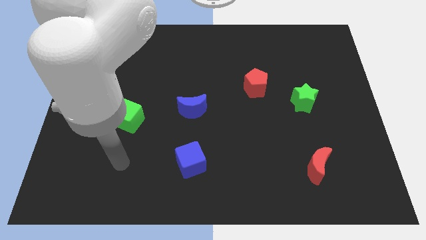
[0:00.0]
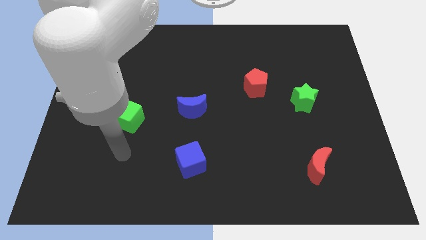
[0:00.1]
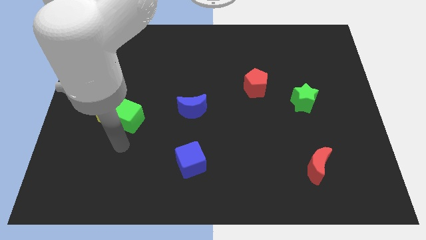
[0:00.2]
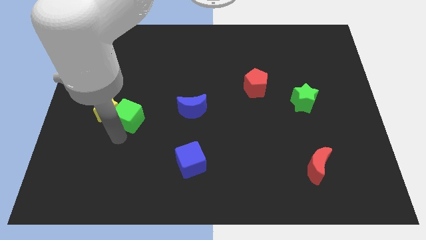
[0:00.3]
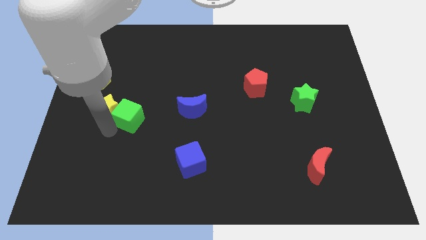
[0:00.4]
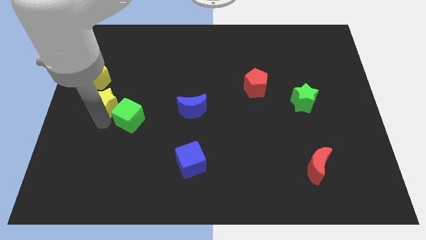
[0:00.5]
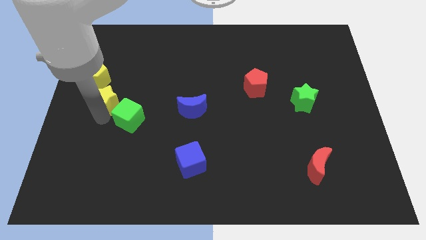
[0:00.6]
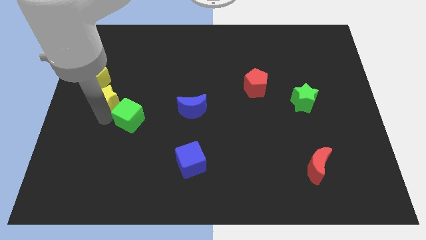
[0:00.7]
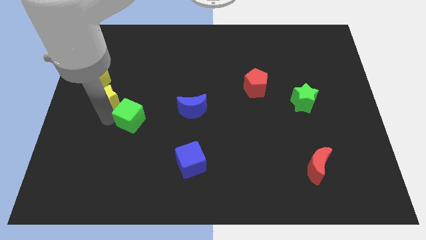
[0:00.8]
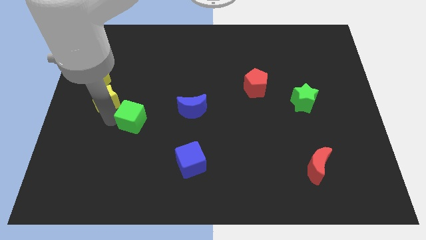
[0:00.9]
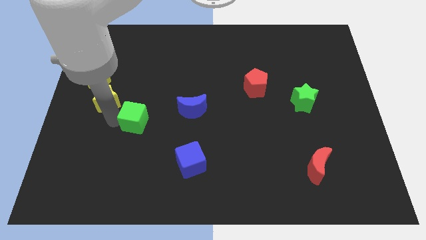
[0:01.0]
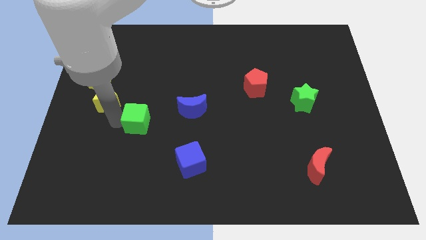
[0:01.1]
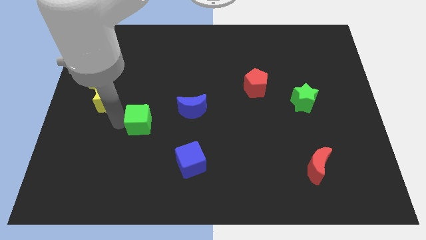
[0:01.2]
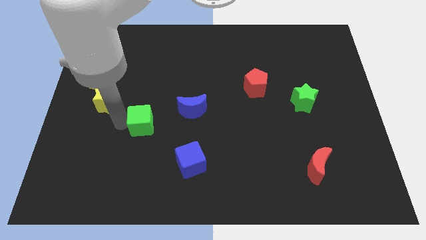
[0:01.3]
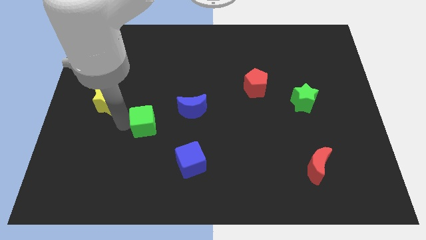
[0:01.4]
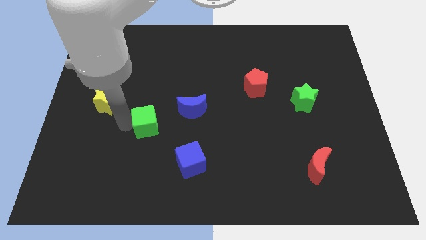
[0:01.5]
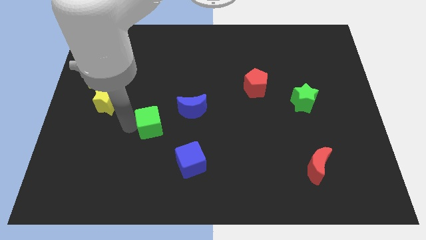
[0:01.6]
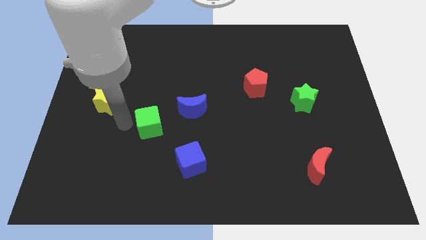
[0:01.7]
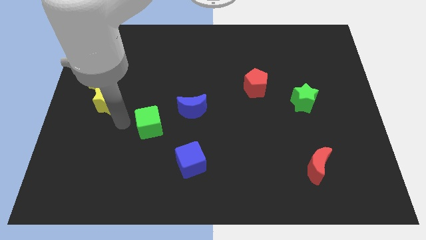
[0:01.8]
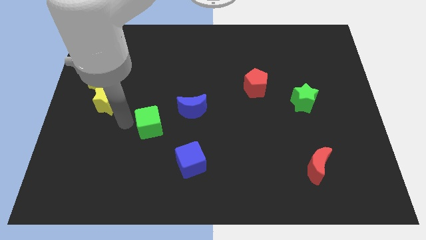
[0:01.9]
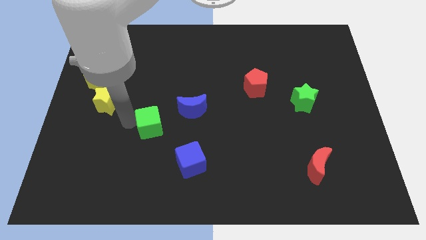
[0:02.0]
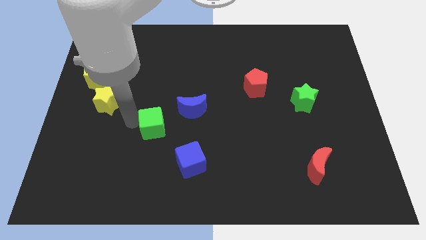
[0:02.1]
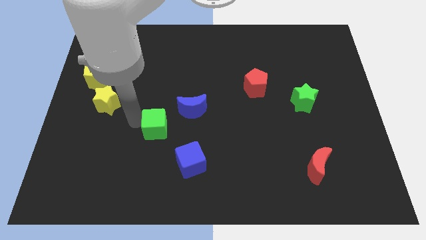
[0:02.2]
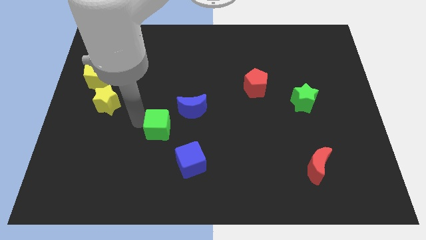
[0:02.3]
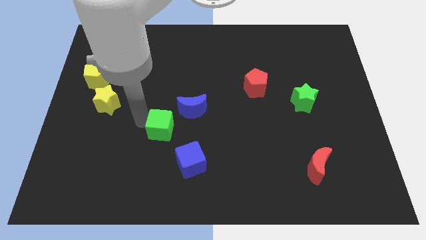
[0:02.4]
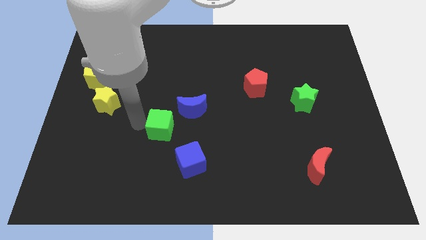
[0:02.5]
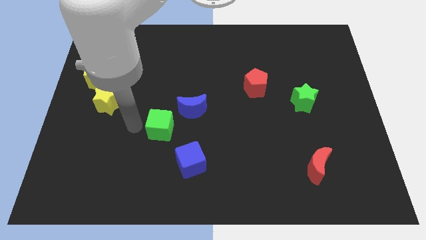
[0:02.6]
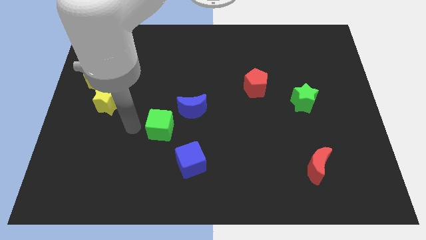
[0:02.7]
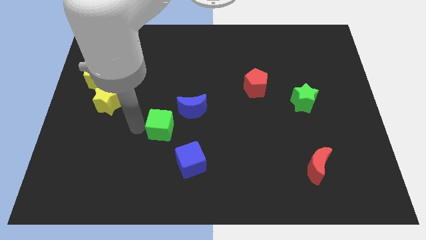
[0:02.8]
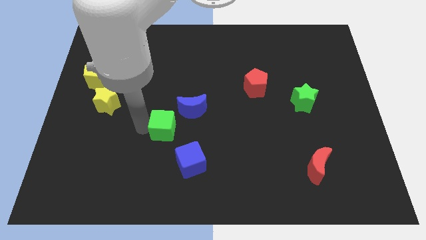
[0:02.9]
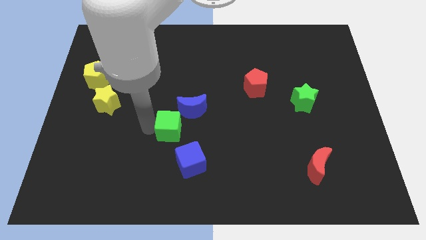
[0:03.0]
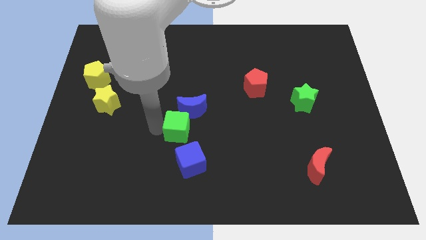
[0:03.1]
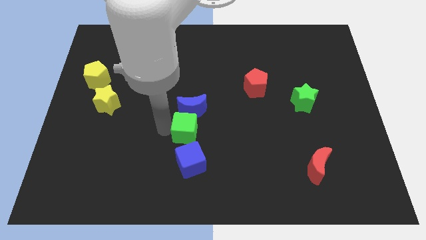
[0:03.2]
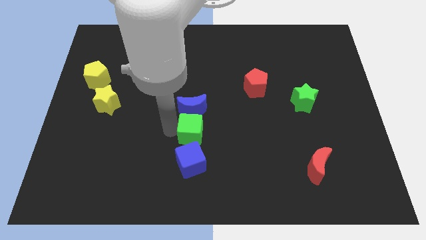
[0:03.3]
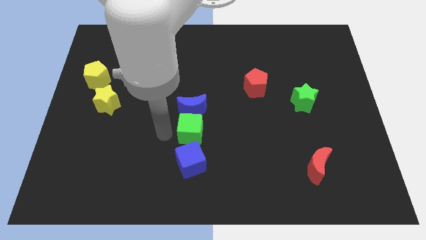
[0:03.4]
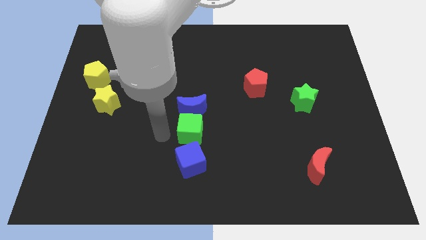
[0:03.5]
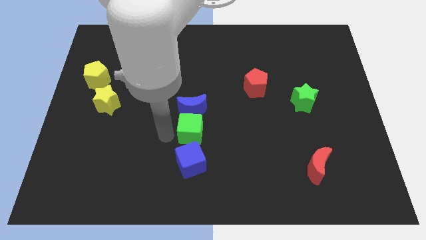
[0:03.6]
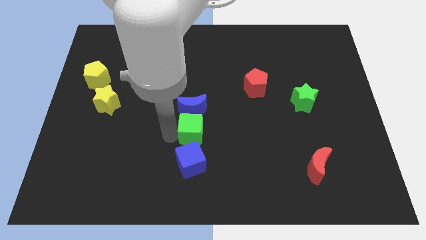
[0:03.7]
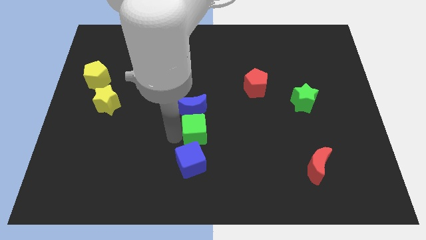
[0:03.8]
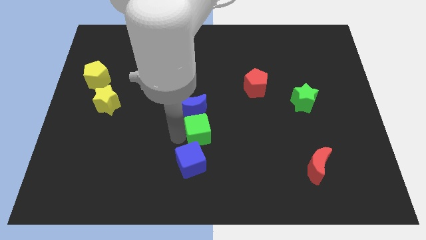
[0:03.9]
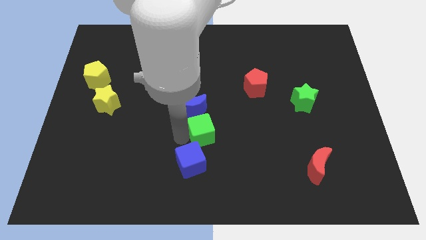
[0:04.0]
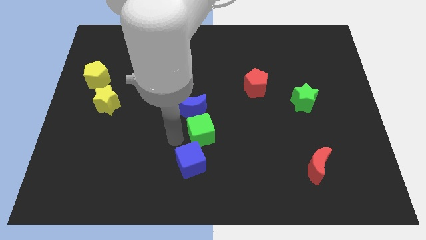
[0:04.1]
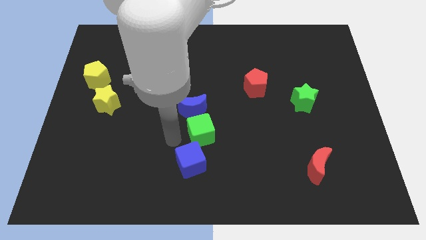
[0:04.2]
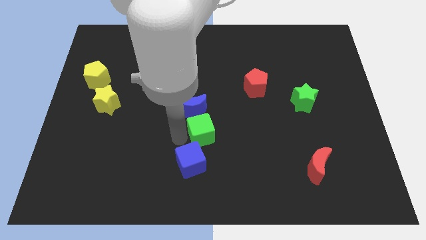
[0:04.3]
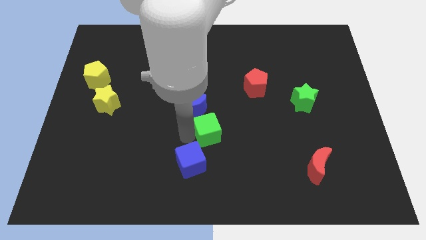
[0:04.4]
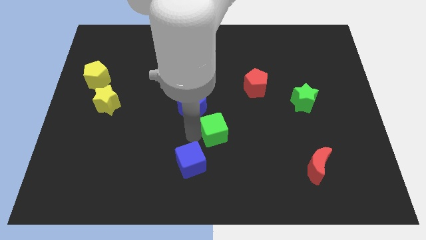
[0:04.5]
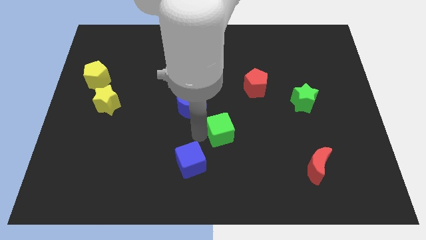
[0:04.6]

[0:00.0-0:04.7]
move the green cube right

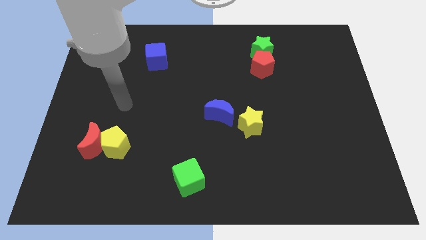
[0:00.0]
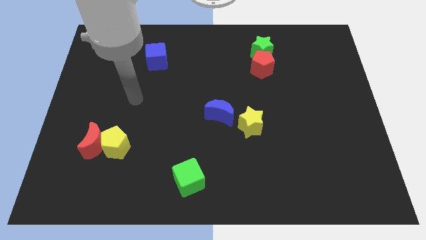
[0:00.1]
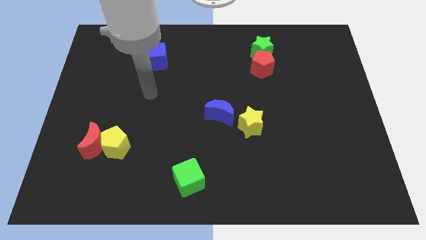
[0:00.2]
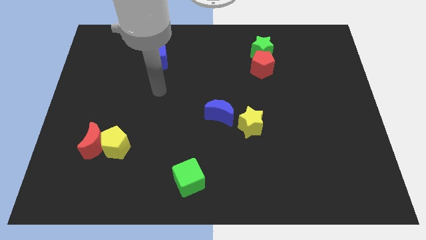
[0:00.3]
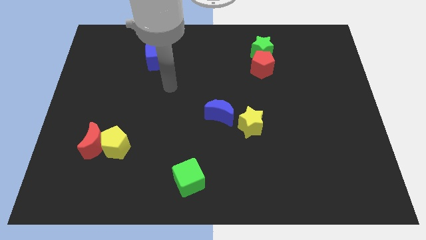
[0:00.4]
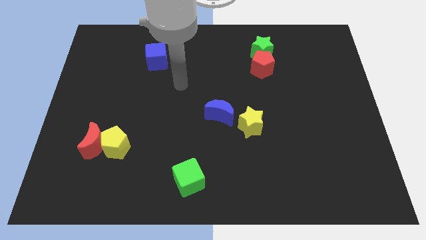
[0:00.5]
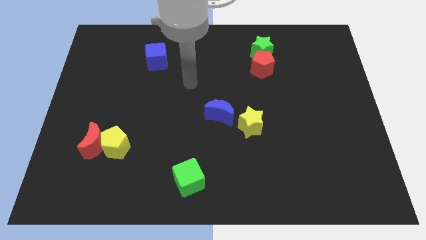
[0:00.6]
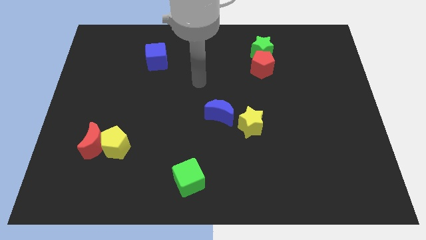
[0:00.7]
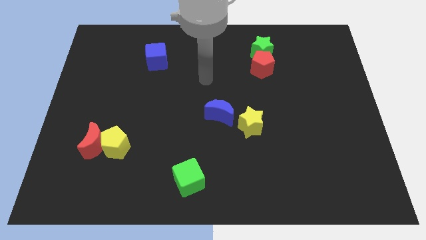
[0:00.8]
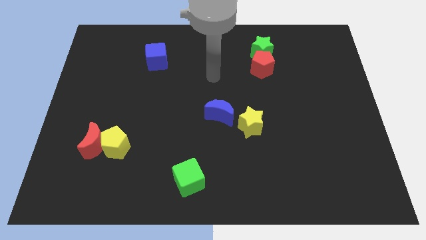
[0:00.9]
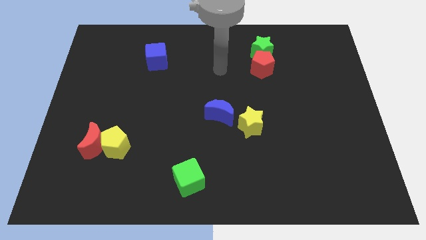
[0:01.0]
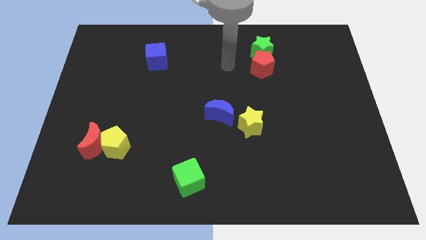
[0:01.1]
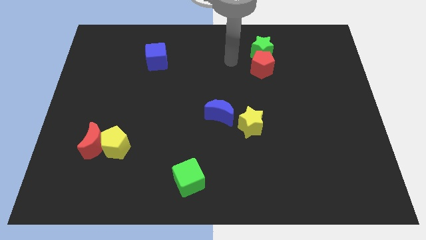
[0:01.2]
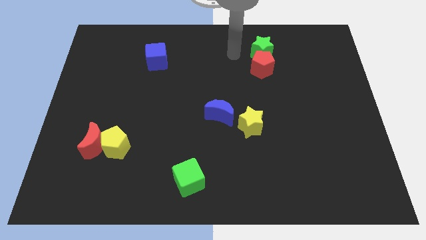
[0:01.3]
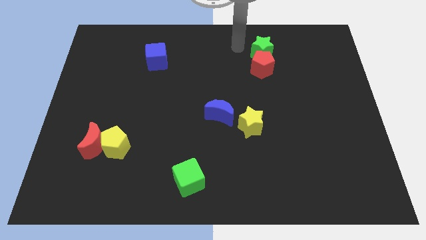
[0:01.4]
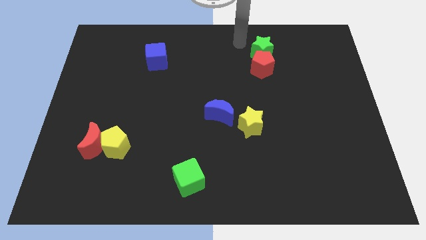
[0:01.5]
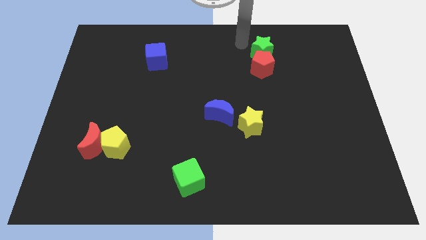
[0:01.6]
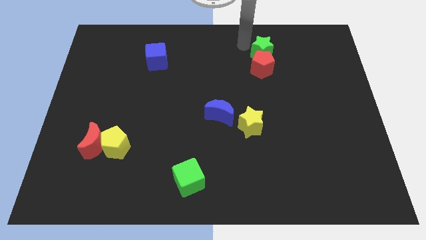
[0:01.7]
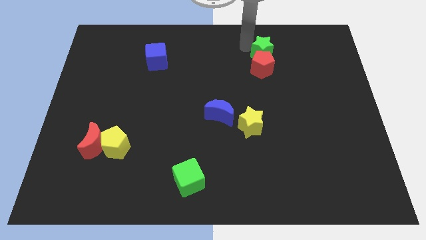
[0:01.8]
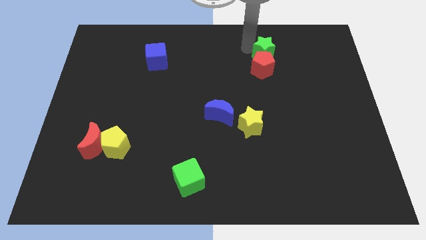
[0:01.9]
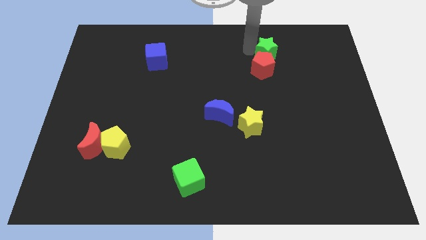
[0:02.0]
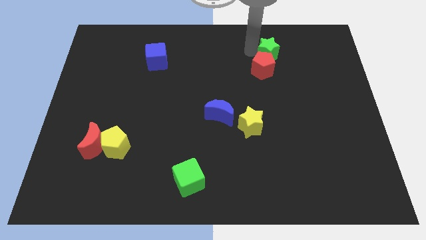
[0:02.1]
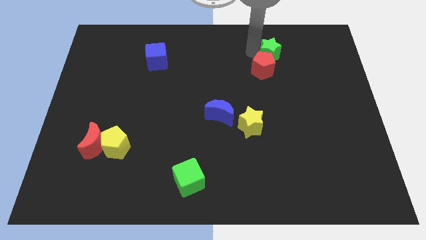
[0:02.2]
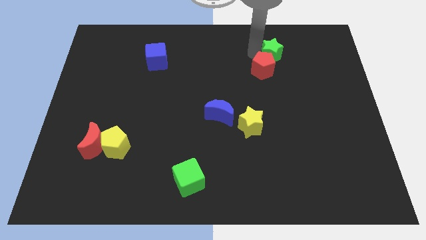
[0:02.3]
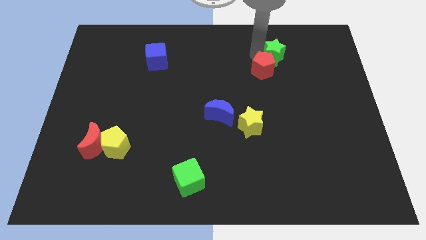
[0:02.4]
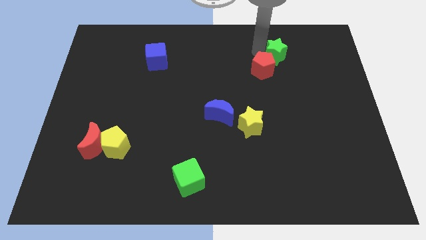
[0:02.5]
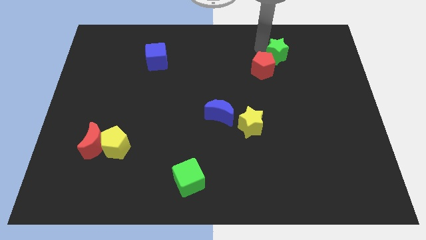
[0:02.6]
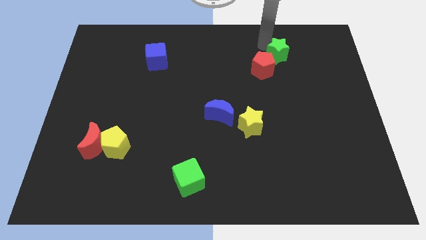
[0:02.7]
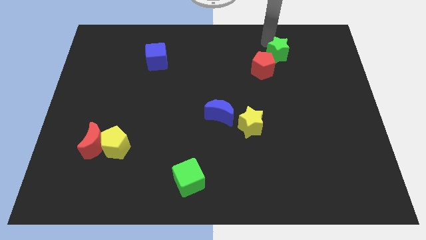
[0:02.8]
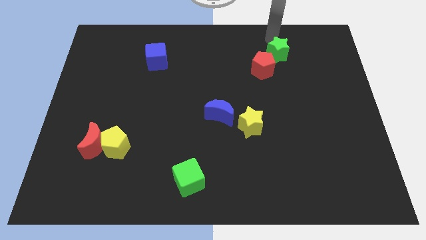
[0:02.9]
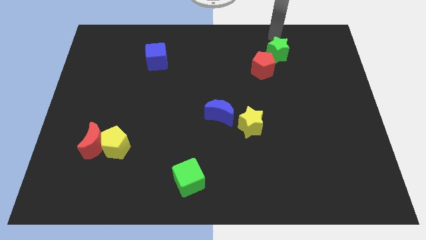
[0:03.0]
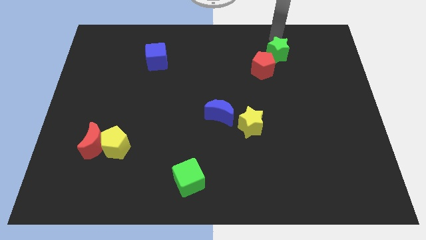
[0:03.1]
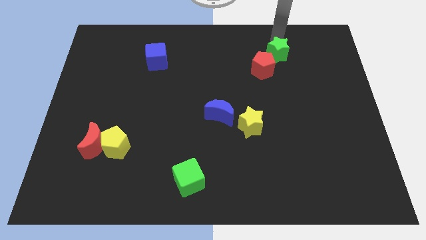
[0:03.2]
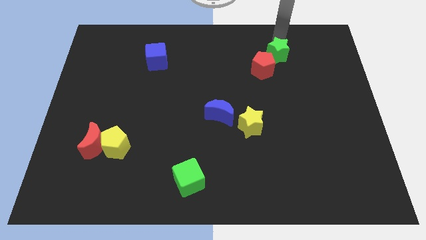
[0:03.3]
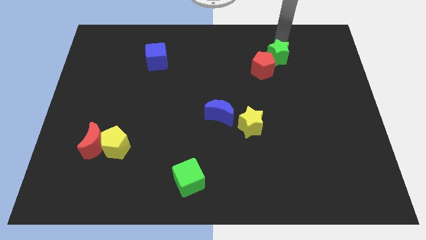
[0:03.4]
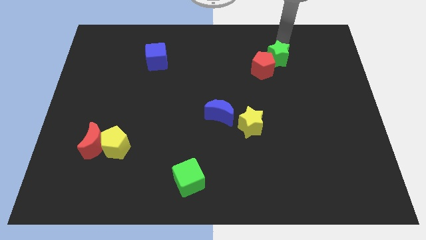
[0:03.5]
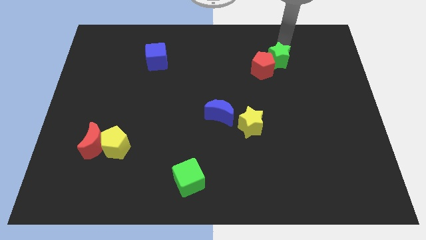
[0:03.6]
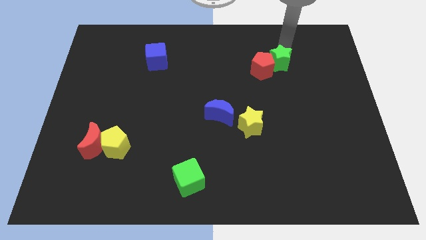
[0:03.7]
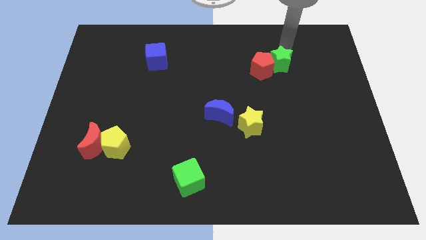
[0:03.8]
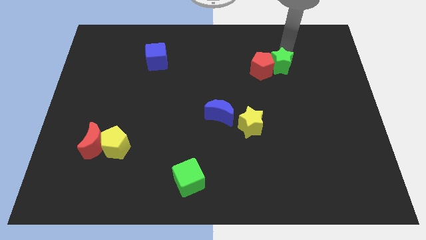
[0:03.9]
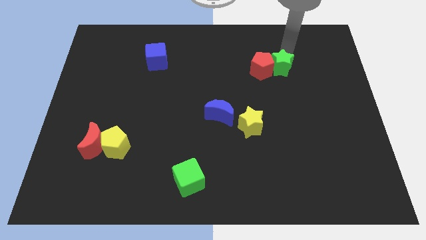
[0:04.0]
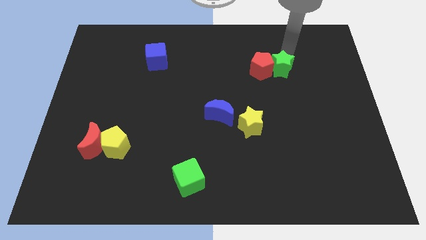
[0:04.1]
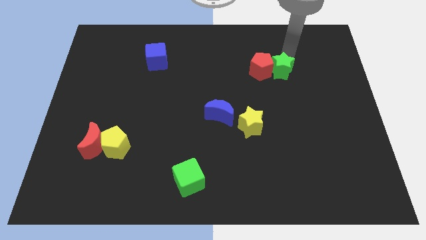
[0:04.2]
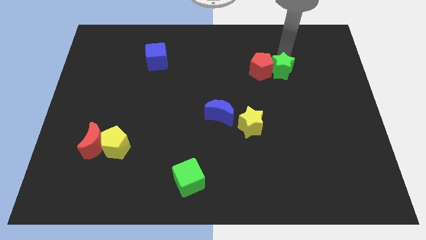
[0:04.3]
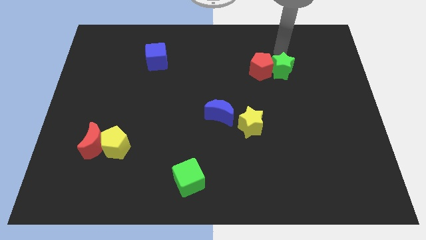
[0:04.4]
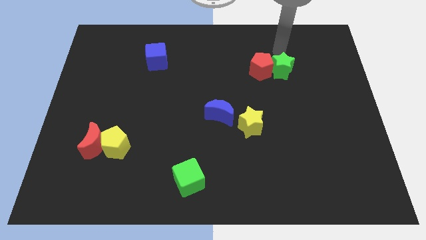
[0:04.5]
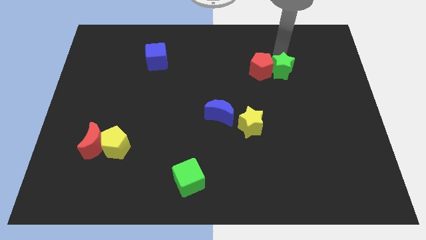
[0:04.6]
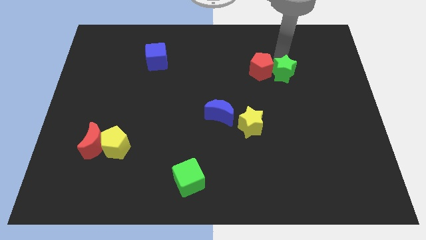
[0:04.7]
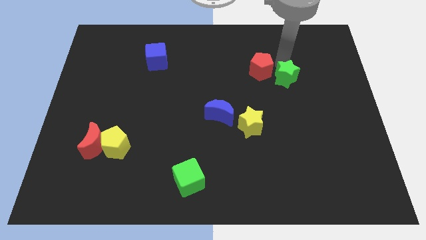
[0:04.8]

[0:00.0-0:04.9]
move the green star downwards a little
